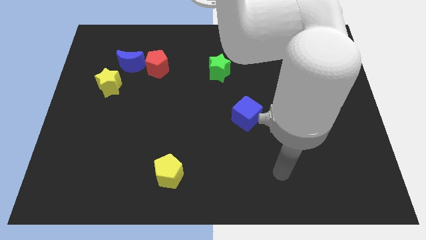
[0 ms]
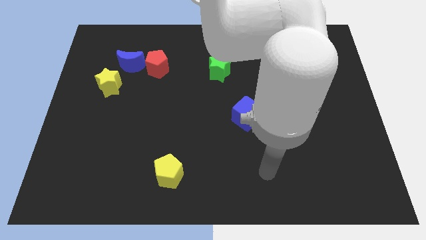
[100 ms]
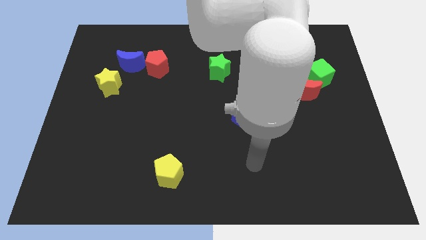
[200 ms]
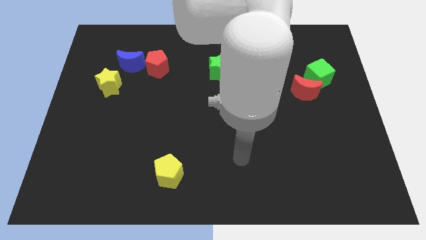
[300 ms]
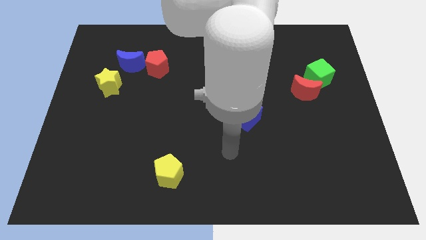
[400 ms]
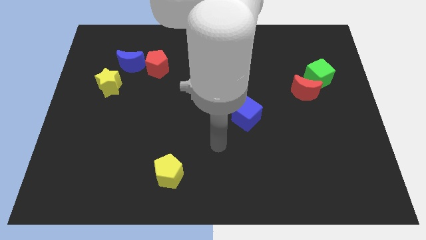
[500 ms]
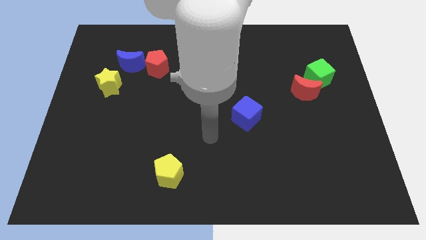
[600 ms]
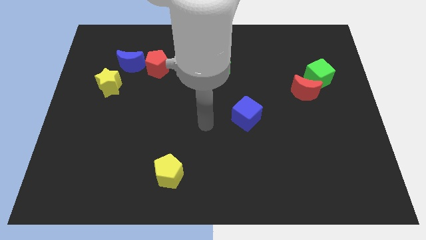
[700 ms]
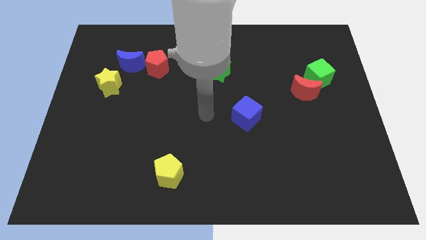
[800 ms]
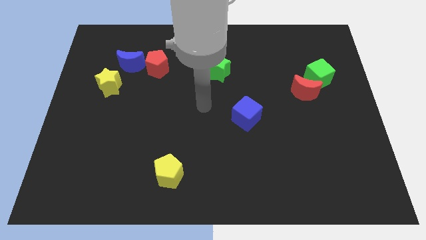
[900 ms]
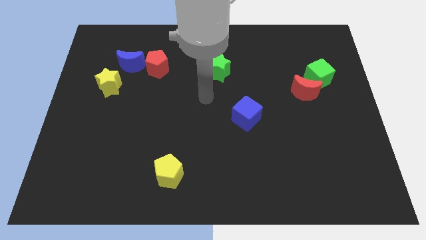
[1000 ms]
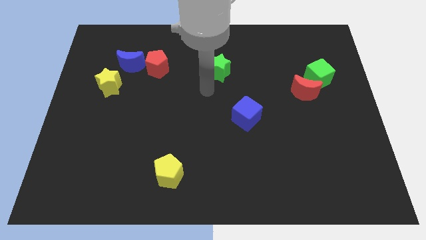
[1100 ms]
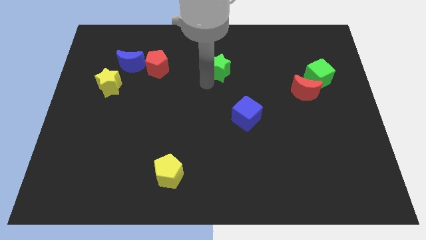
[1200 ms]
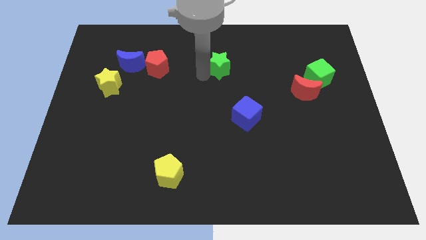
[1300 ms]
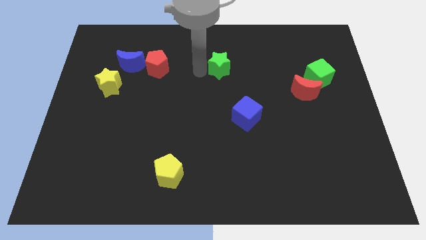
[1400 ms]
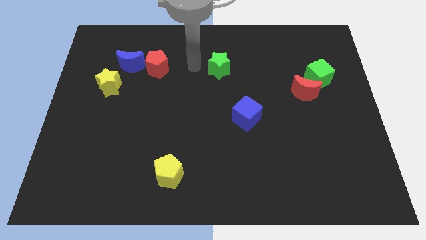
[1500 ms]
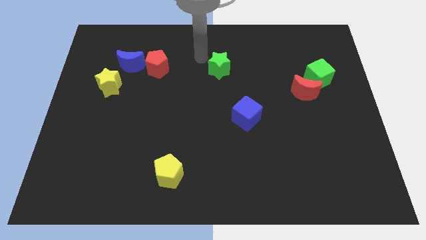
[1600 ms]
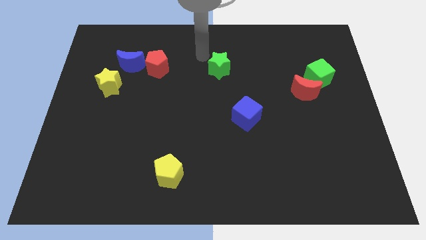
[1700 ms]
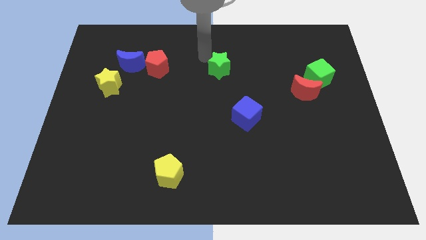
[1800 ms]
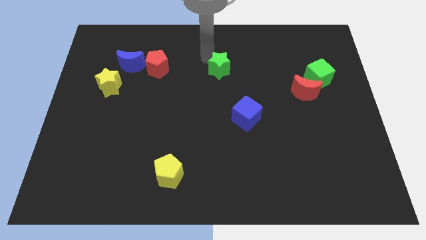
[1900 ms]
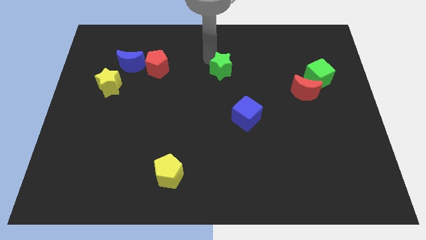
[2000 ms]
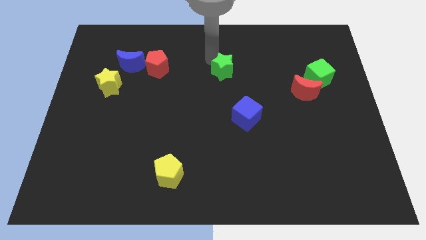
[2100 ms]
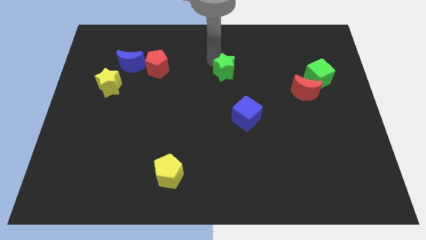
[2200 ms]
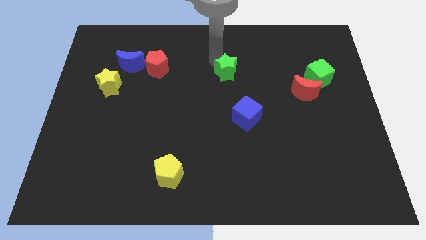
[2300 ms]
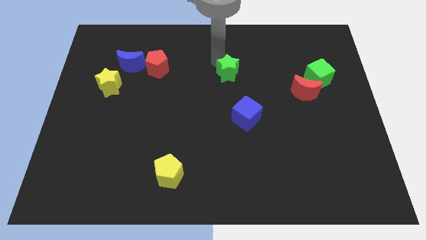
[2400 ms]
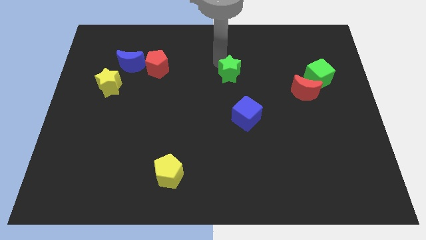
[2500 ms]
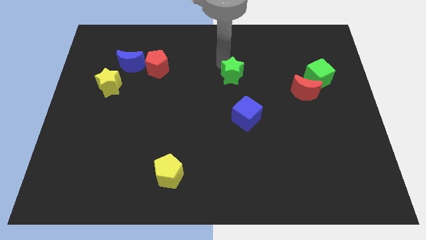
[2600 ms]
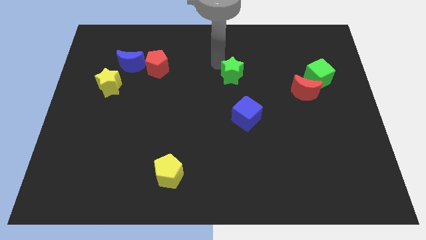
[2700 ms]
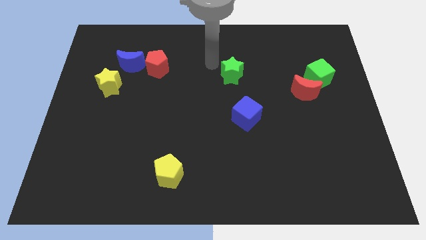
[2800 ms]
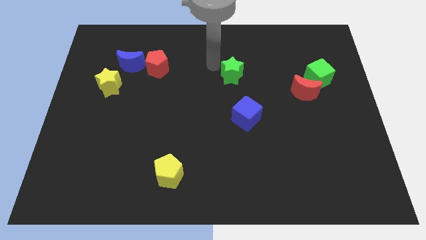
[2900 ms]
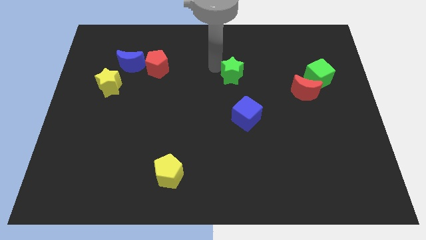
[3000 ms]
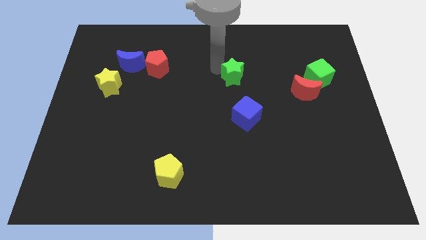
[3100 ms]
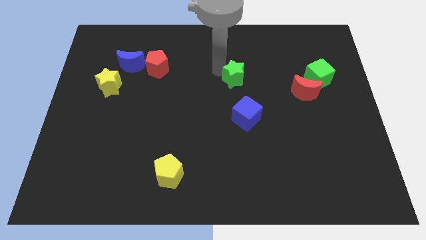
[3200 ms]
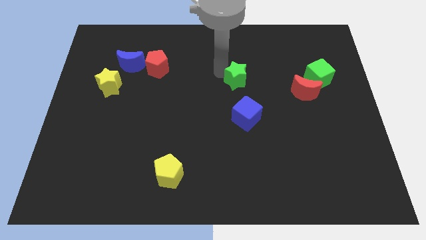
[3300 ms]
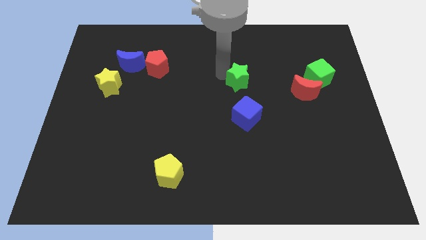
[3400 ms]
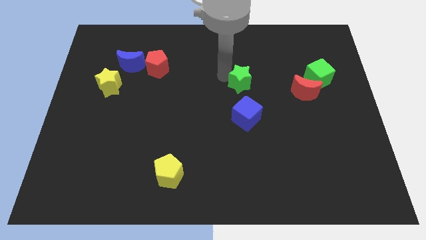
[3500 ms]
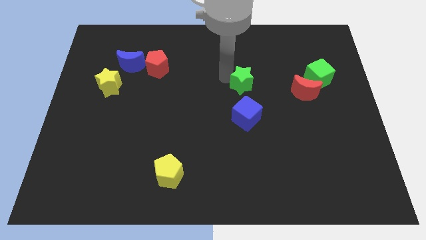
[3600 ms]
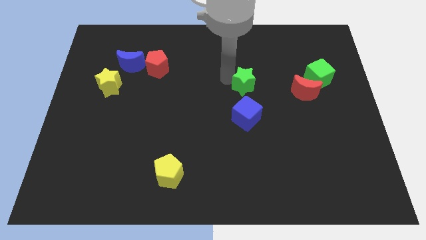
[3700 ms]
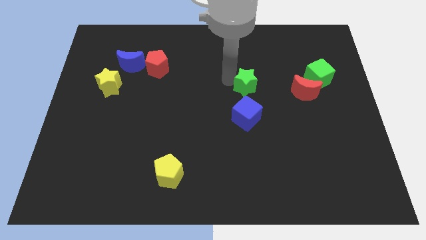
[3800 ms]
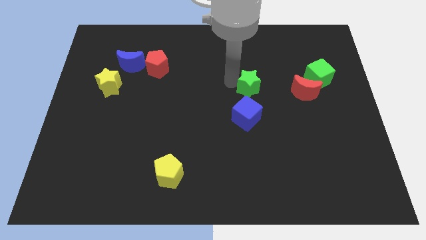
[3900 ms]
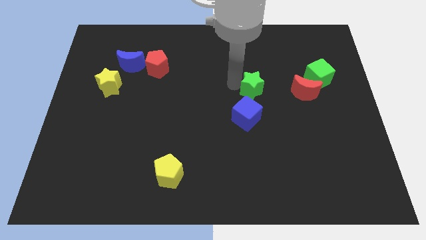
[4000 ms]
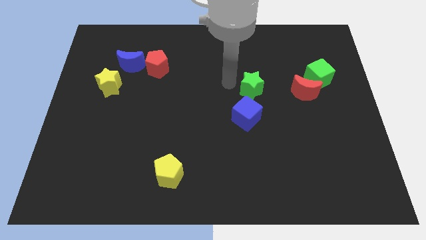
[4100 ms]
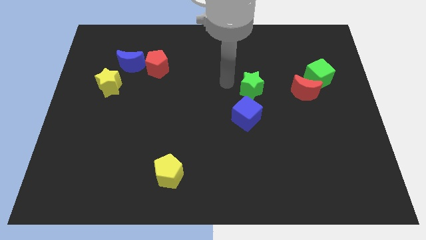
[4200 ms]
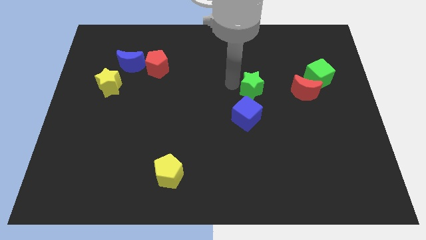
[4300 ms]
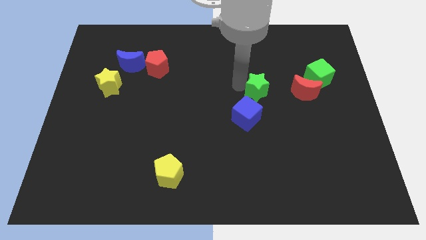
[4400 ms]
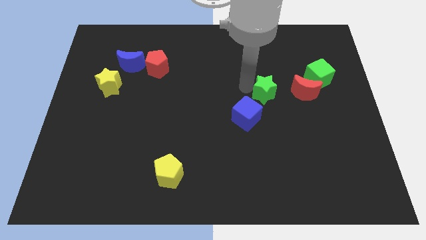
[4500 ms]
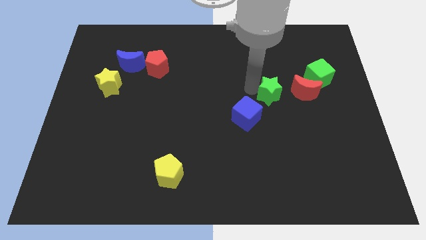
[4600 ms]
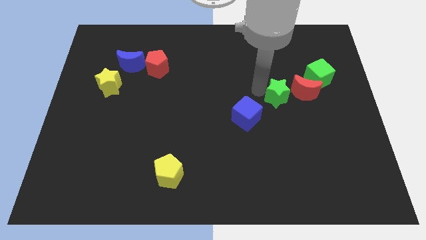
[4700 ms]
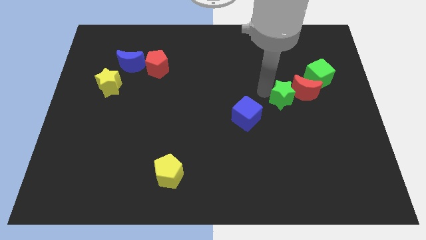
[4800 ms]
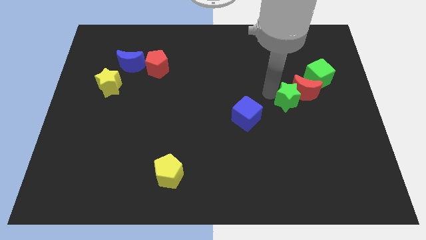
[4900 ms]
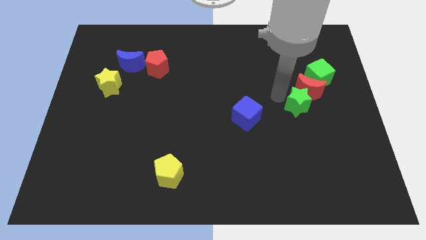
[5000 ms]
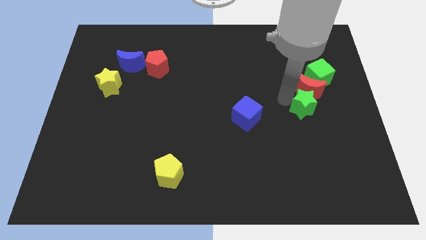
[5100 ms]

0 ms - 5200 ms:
move the green star to the bottom of the green cube

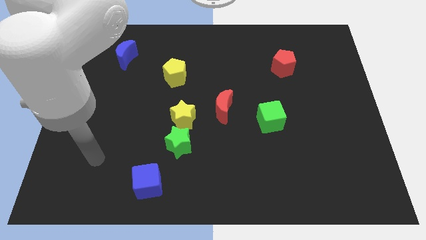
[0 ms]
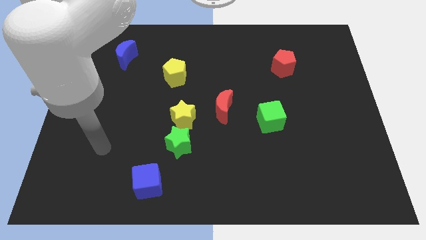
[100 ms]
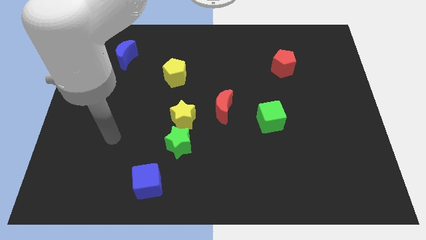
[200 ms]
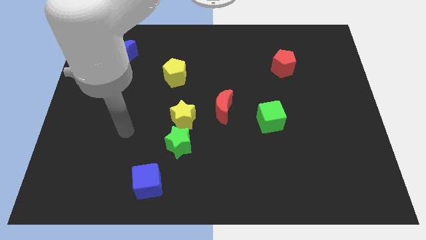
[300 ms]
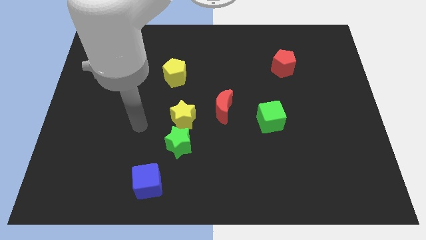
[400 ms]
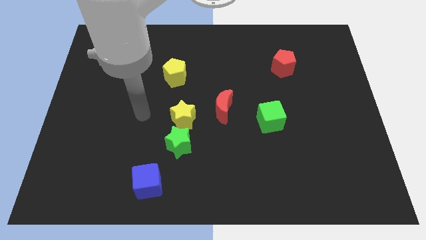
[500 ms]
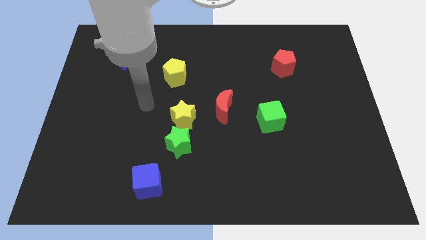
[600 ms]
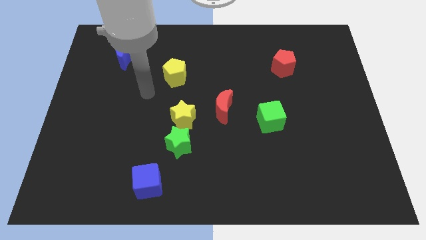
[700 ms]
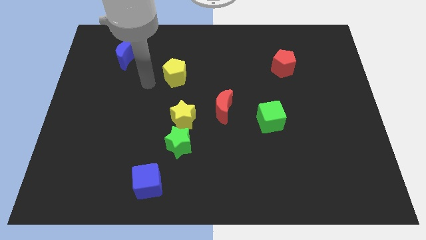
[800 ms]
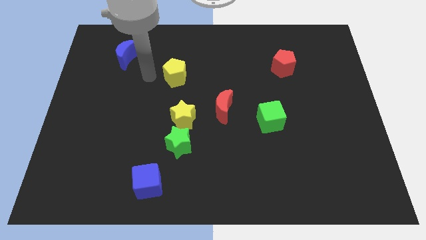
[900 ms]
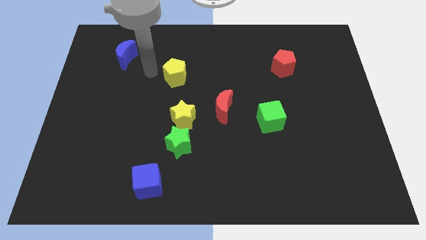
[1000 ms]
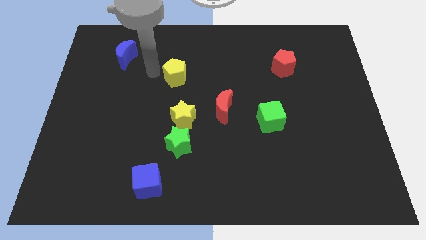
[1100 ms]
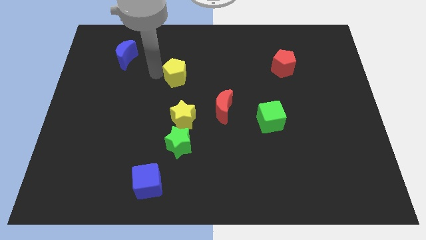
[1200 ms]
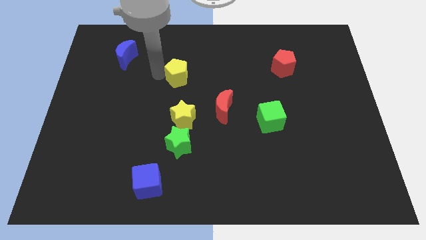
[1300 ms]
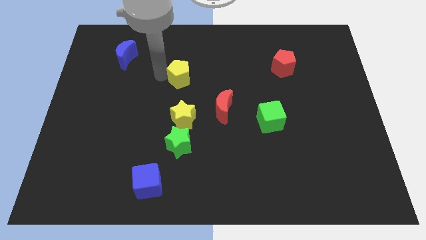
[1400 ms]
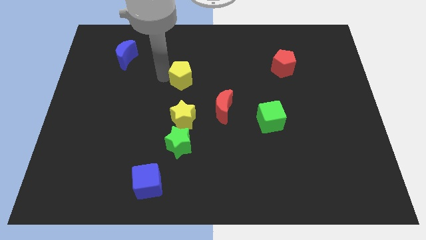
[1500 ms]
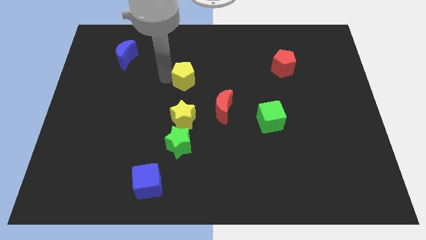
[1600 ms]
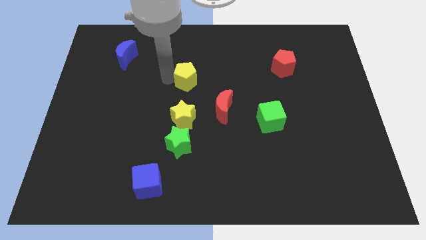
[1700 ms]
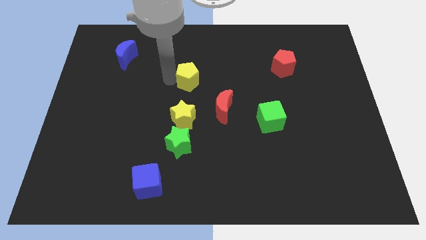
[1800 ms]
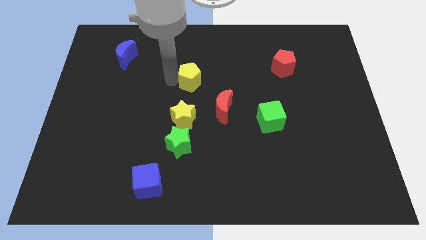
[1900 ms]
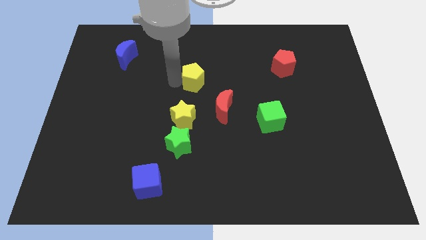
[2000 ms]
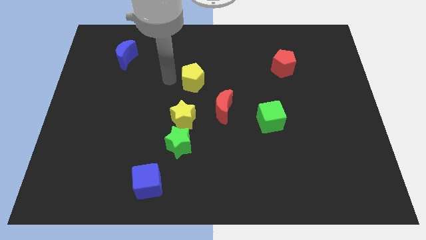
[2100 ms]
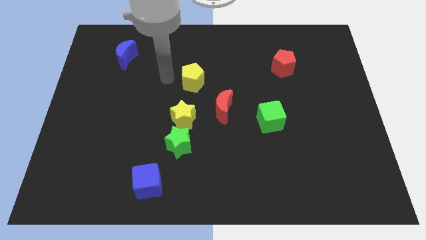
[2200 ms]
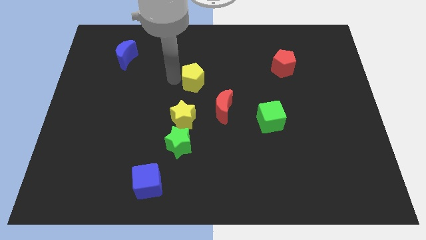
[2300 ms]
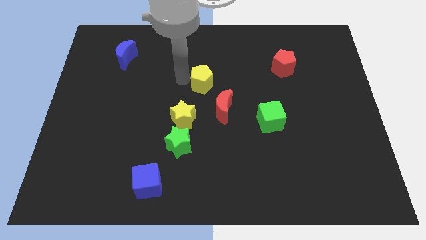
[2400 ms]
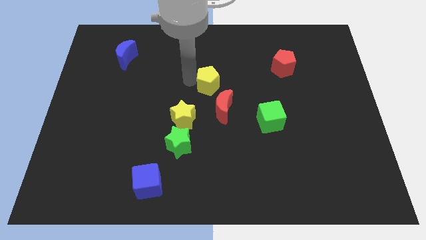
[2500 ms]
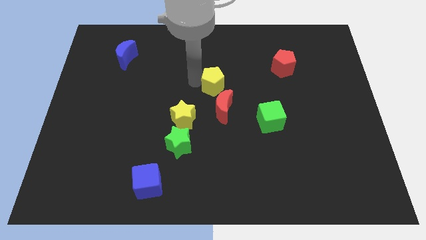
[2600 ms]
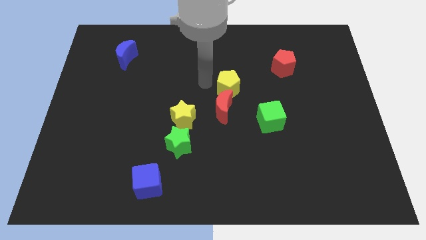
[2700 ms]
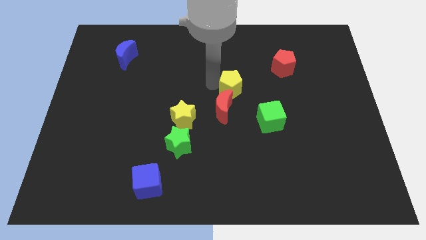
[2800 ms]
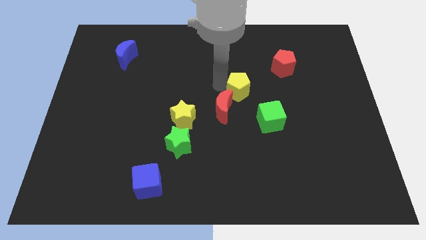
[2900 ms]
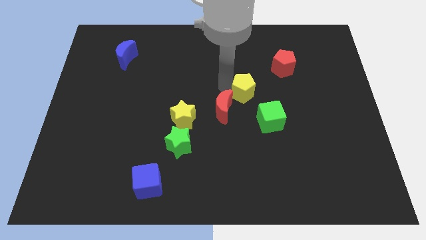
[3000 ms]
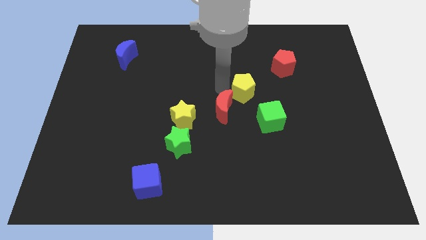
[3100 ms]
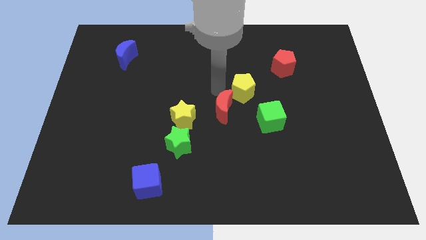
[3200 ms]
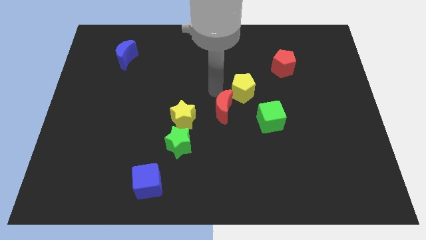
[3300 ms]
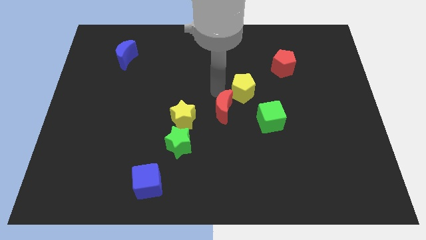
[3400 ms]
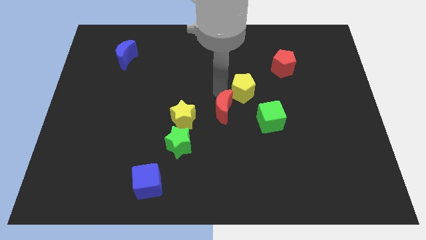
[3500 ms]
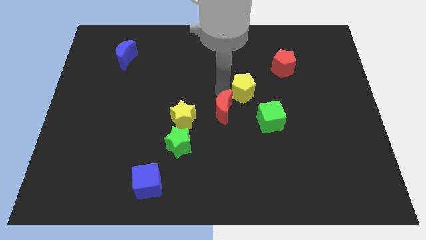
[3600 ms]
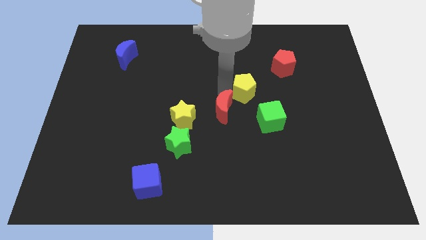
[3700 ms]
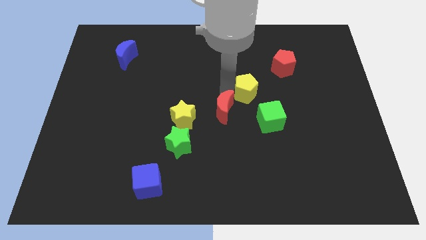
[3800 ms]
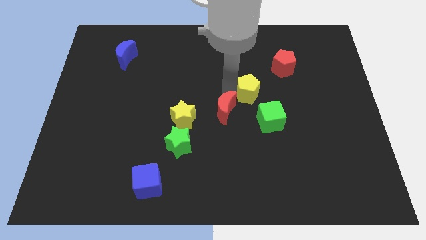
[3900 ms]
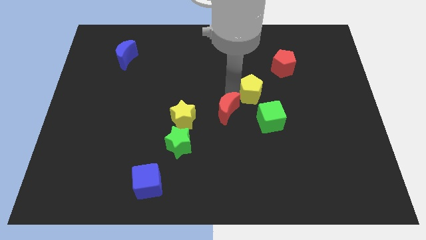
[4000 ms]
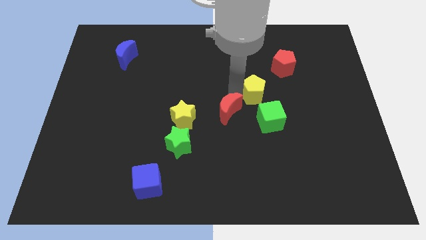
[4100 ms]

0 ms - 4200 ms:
put the yellow pentagon to the right of the red moon
